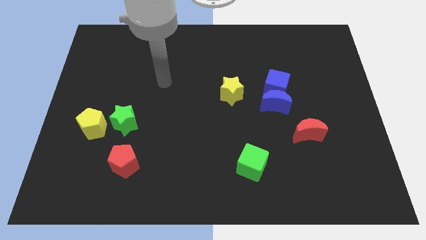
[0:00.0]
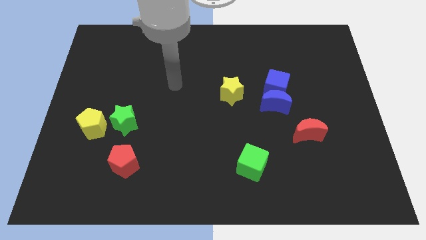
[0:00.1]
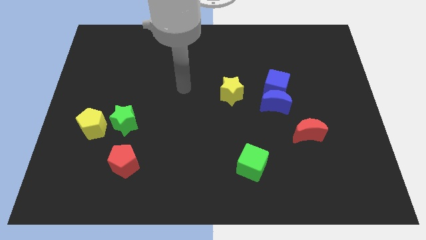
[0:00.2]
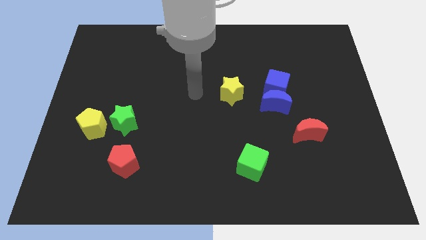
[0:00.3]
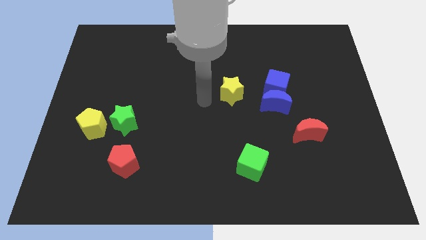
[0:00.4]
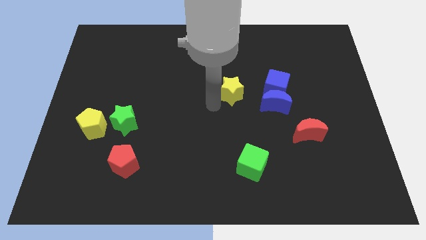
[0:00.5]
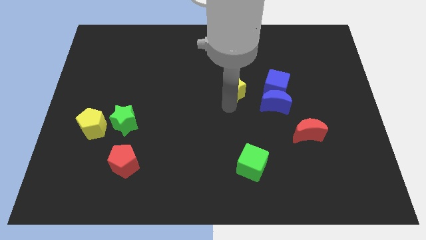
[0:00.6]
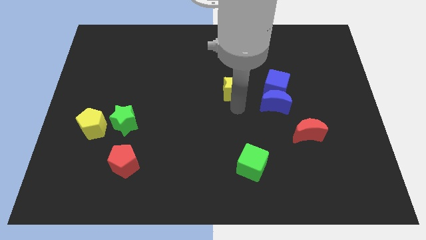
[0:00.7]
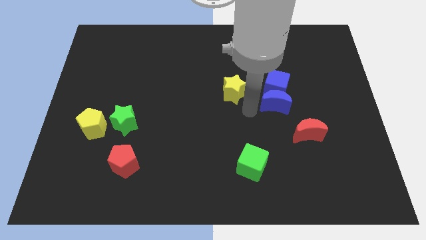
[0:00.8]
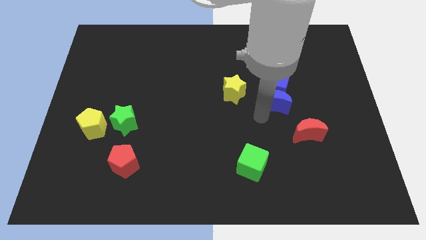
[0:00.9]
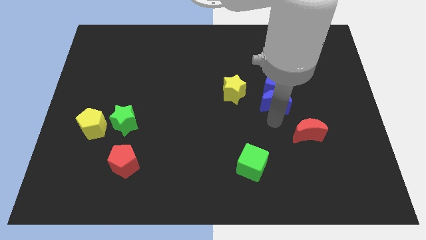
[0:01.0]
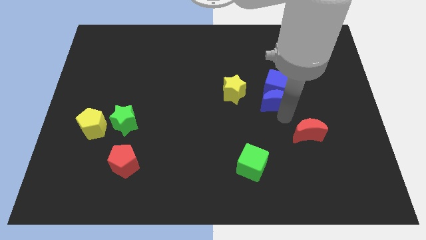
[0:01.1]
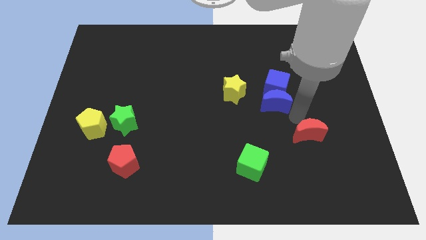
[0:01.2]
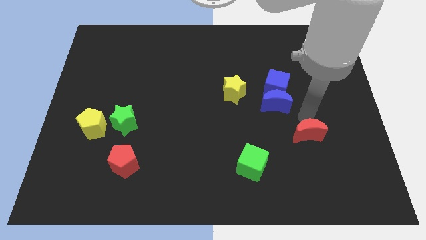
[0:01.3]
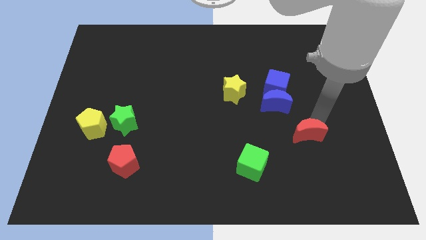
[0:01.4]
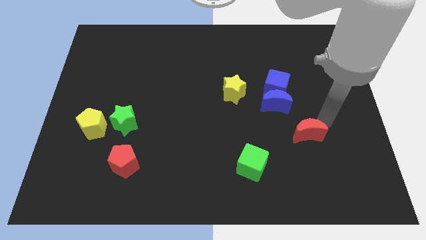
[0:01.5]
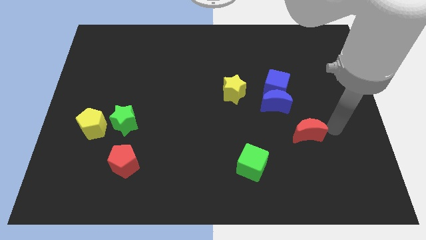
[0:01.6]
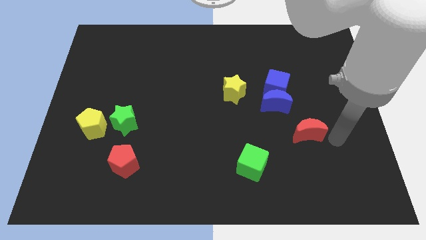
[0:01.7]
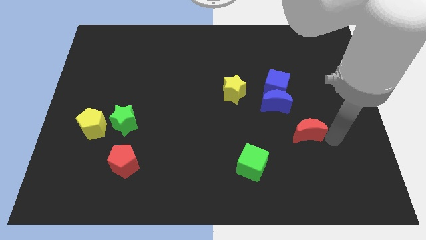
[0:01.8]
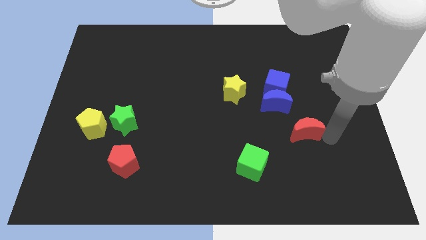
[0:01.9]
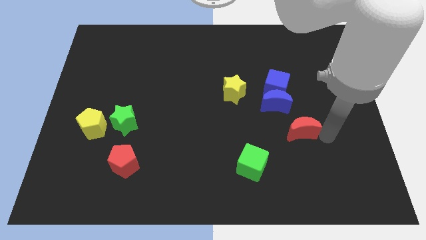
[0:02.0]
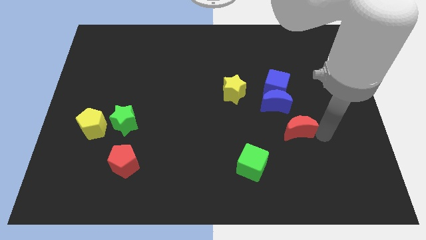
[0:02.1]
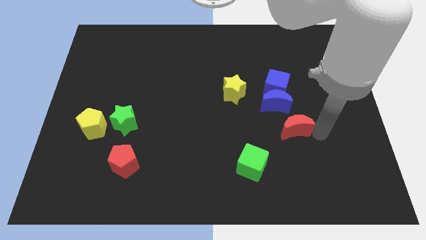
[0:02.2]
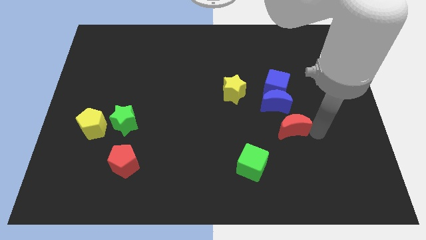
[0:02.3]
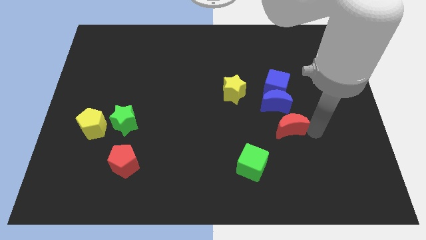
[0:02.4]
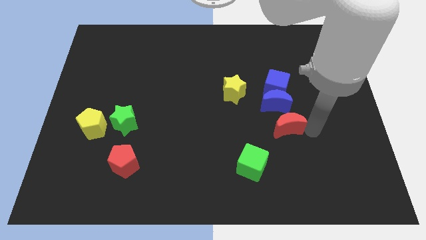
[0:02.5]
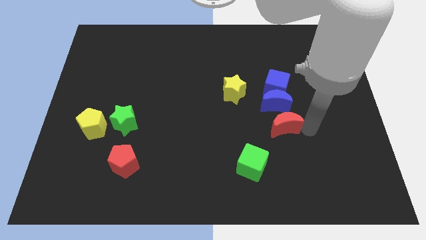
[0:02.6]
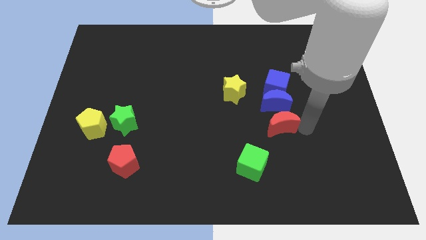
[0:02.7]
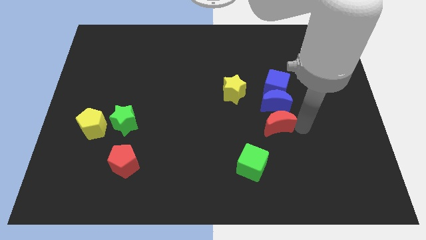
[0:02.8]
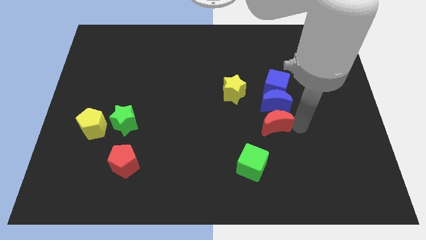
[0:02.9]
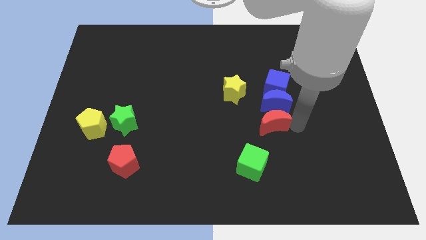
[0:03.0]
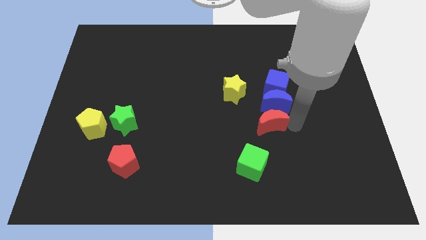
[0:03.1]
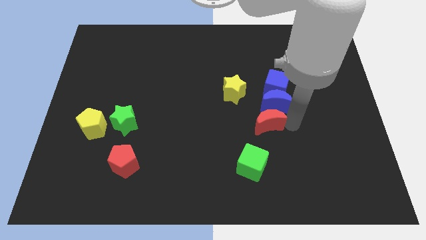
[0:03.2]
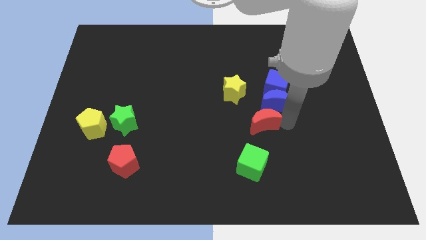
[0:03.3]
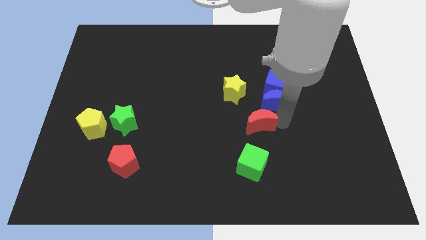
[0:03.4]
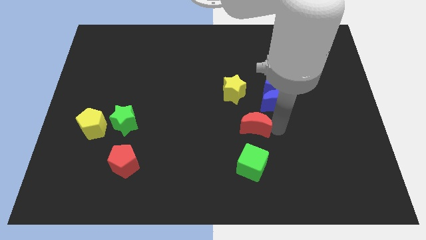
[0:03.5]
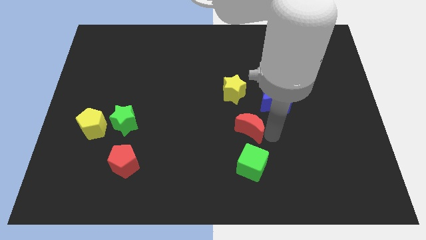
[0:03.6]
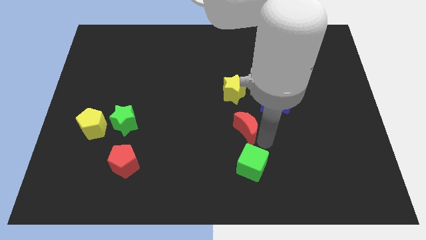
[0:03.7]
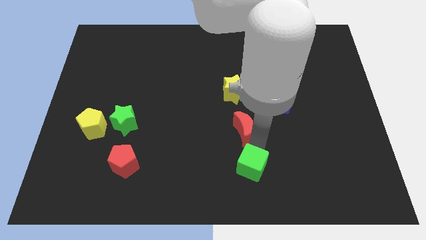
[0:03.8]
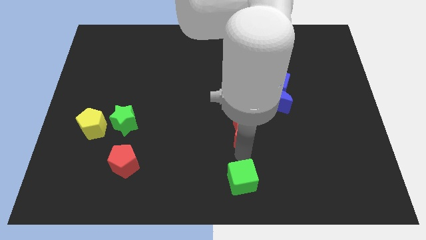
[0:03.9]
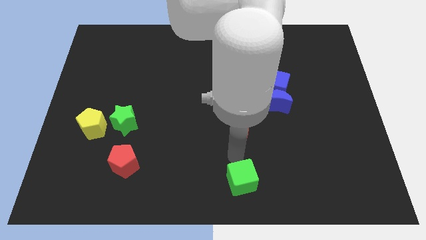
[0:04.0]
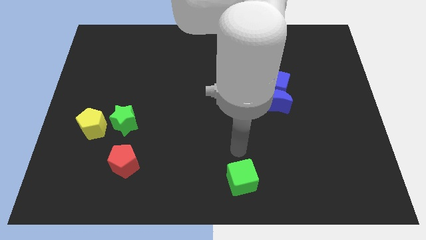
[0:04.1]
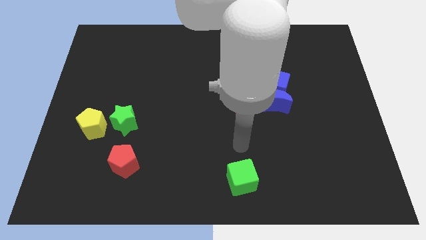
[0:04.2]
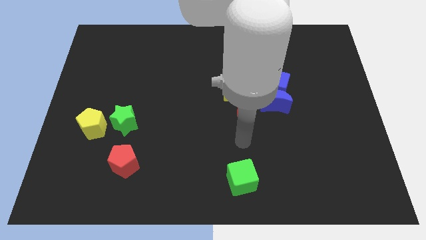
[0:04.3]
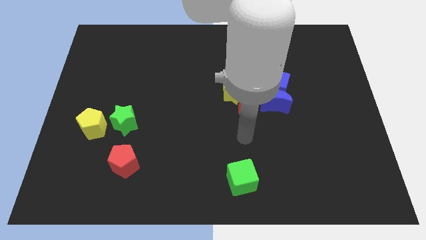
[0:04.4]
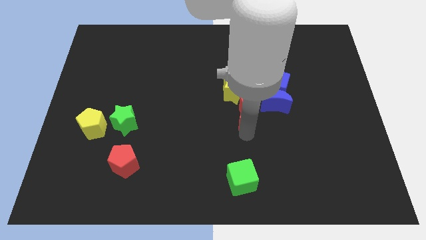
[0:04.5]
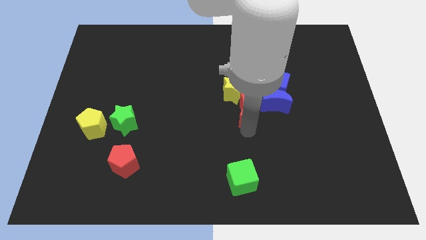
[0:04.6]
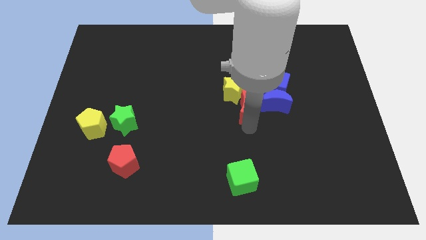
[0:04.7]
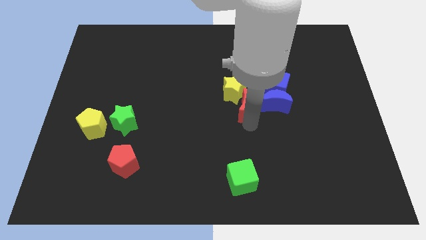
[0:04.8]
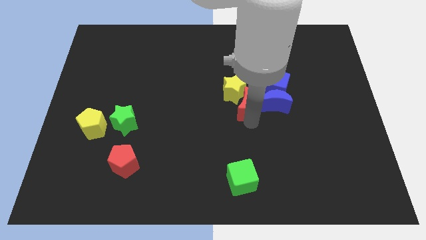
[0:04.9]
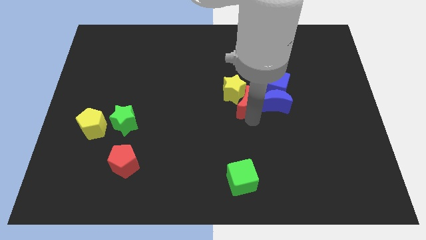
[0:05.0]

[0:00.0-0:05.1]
put the red moon diagonally up and to the left of the blue moon

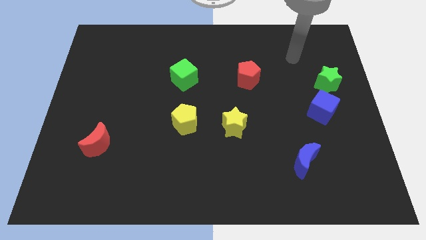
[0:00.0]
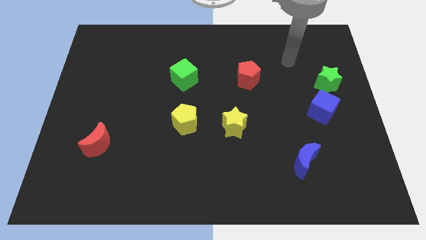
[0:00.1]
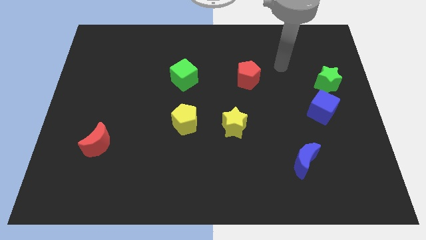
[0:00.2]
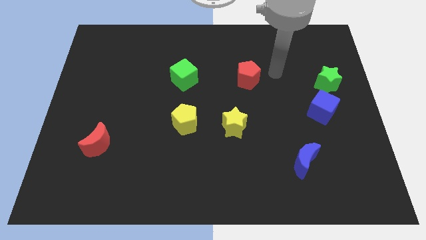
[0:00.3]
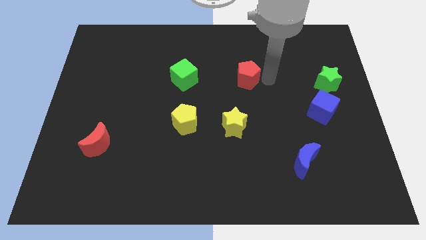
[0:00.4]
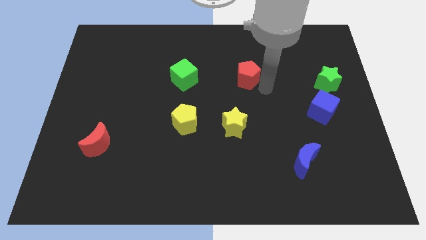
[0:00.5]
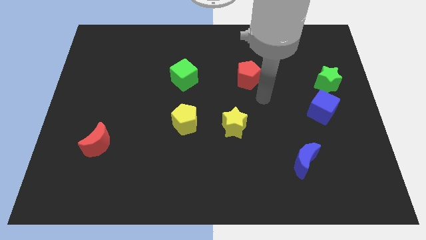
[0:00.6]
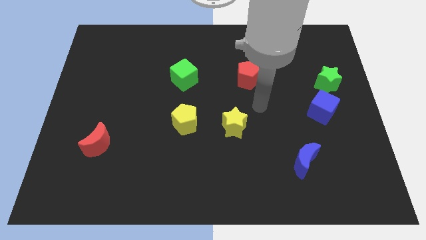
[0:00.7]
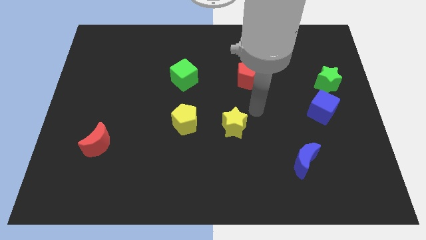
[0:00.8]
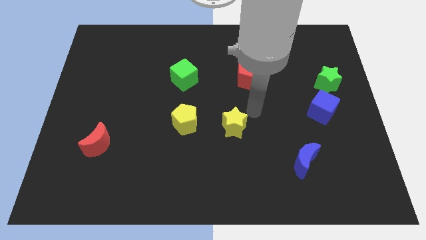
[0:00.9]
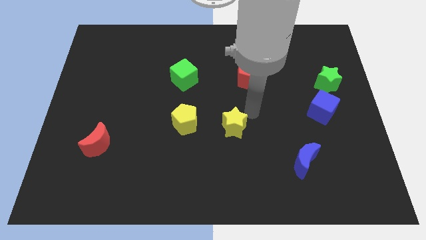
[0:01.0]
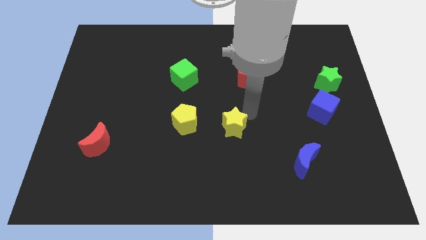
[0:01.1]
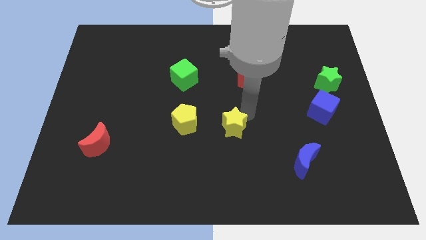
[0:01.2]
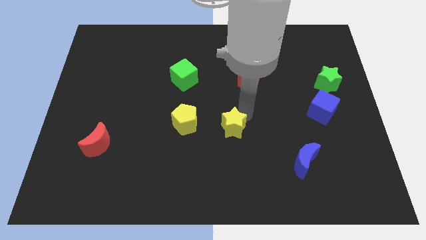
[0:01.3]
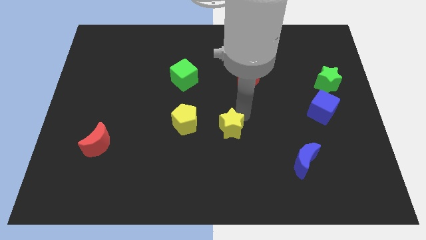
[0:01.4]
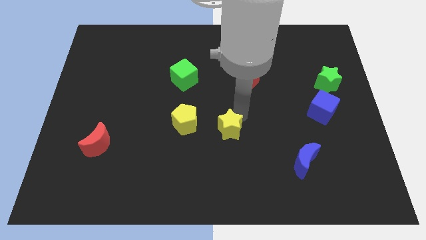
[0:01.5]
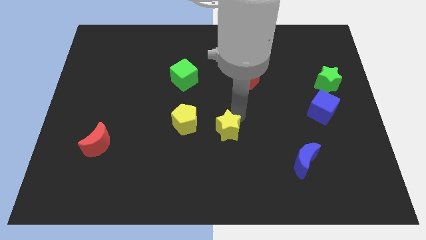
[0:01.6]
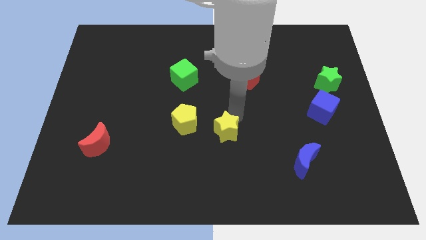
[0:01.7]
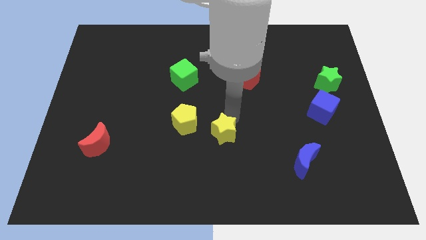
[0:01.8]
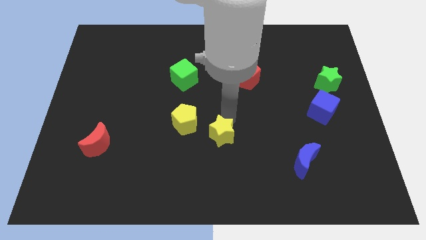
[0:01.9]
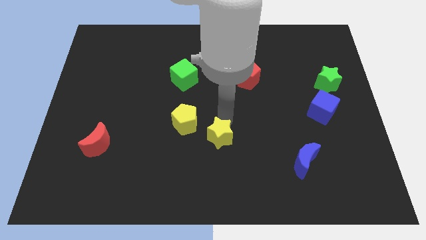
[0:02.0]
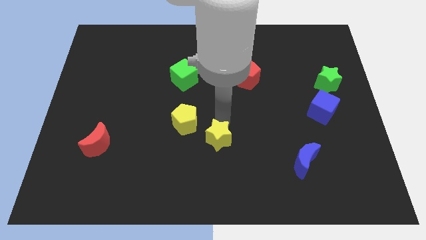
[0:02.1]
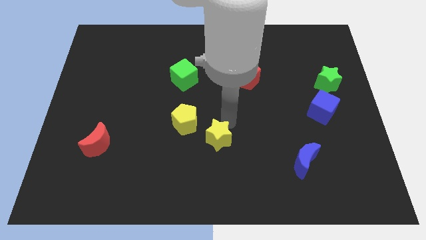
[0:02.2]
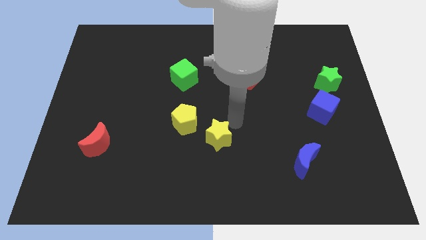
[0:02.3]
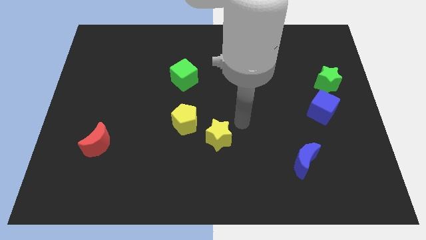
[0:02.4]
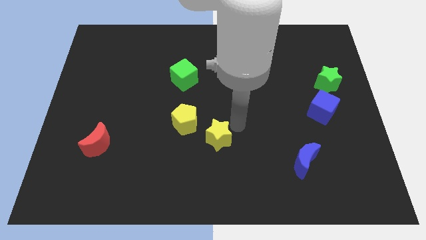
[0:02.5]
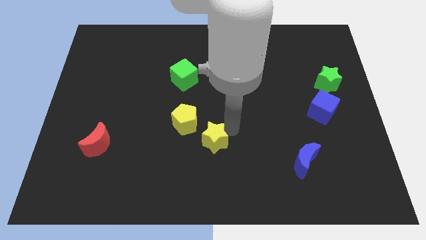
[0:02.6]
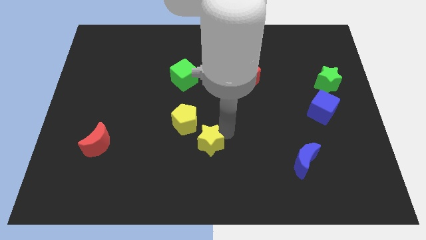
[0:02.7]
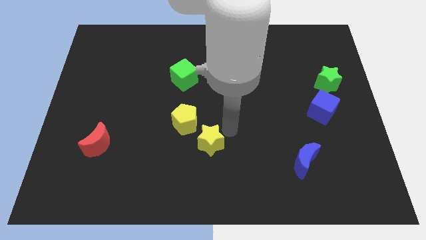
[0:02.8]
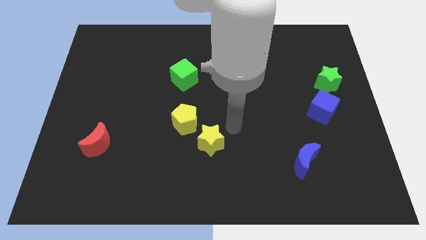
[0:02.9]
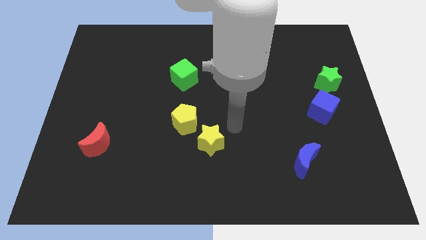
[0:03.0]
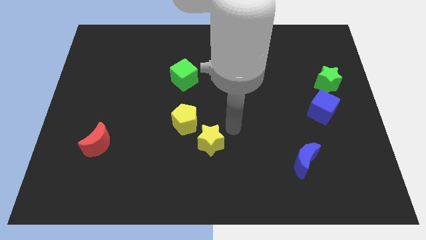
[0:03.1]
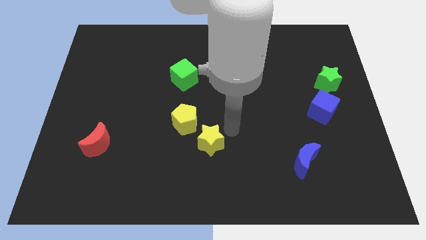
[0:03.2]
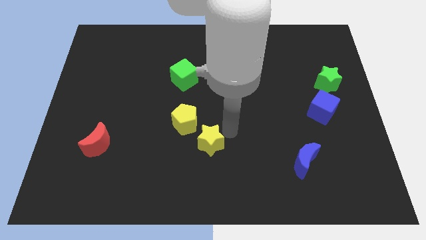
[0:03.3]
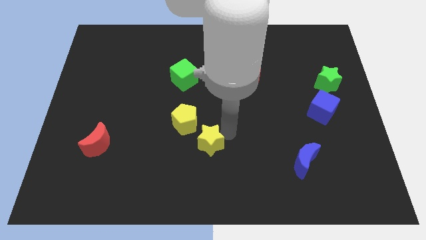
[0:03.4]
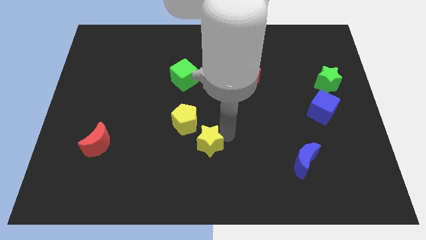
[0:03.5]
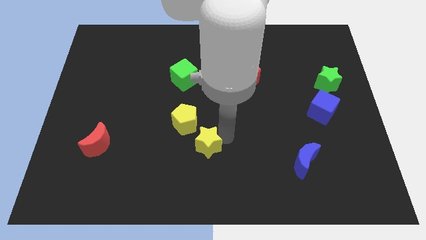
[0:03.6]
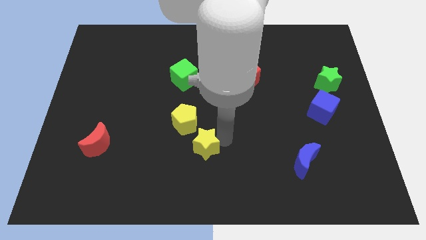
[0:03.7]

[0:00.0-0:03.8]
push the yellow star to the bottom side of the yellow pentagon
